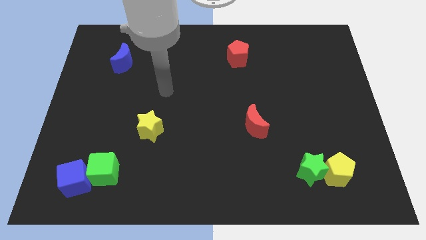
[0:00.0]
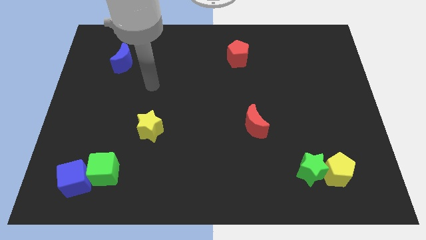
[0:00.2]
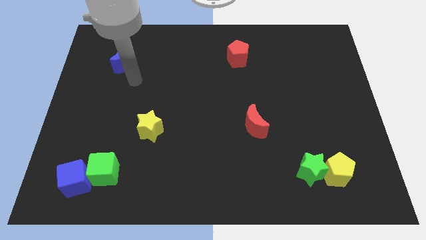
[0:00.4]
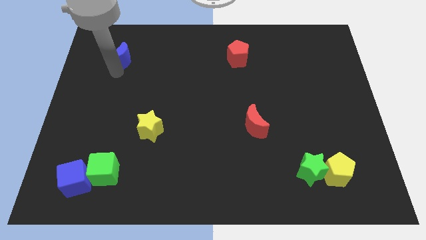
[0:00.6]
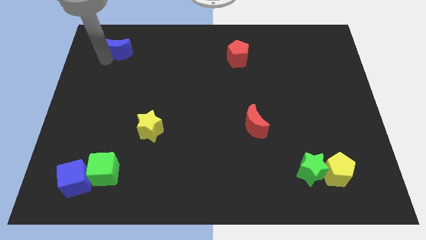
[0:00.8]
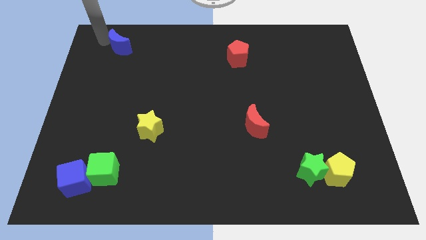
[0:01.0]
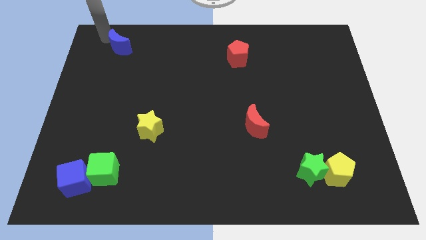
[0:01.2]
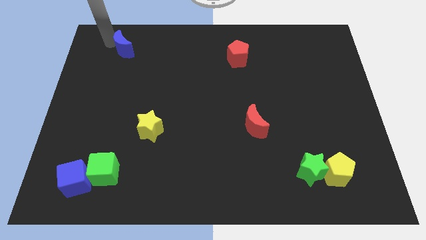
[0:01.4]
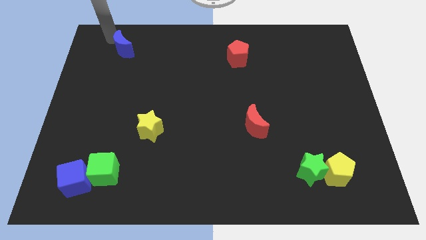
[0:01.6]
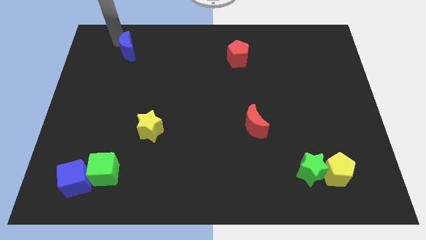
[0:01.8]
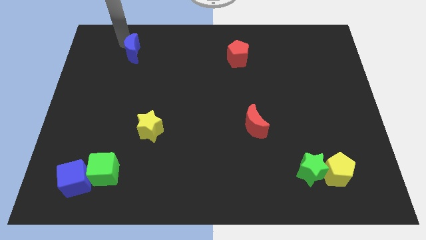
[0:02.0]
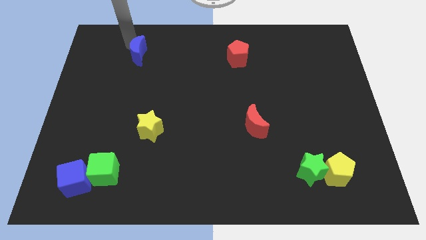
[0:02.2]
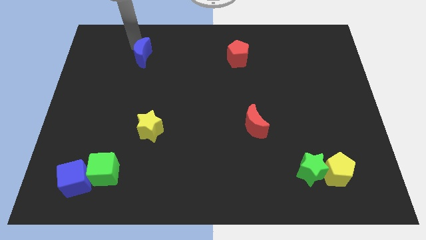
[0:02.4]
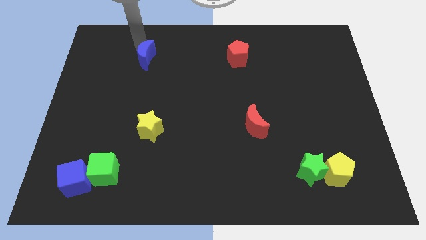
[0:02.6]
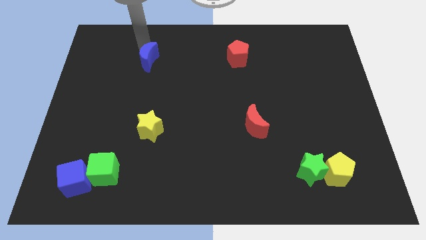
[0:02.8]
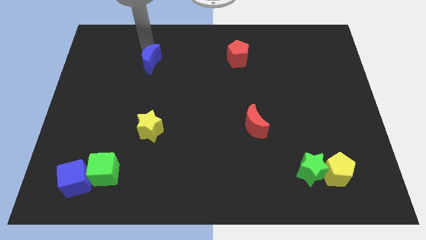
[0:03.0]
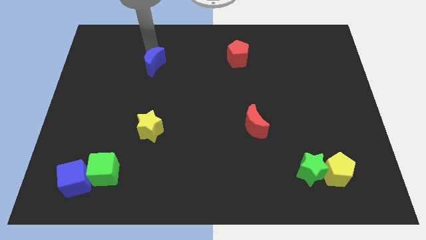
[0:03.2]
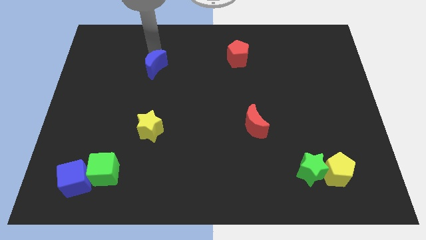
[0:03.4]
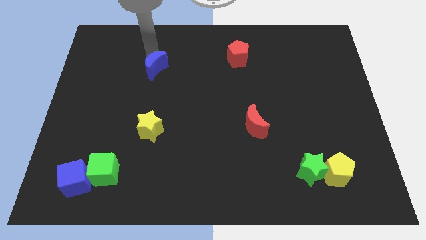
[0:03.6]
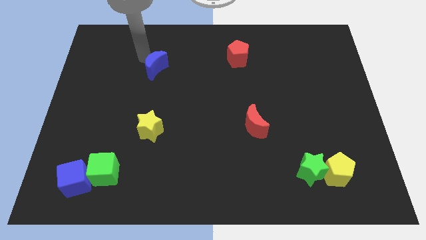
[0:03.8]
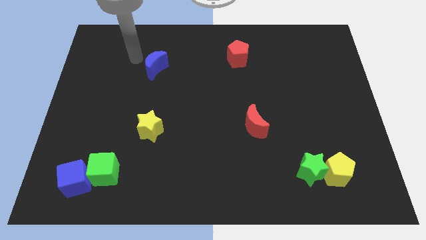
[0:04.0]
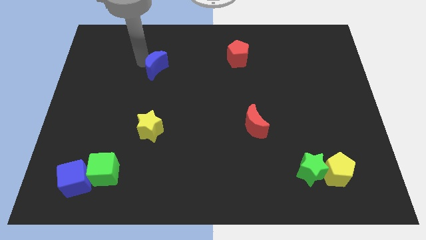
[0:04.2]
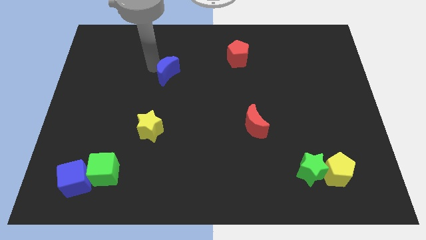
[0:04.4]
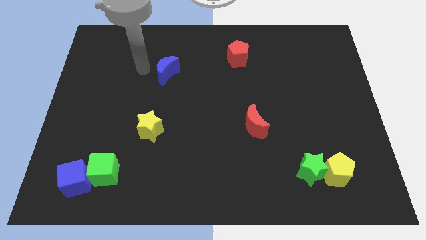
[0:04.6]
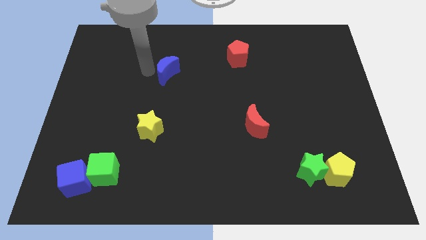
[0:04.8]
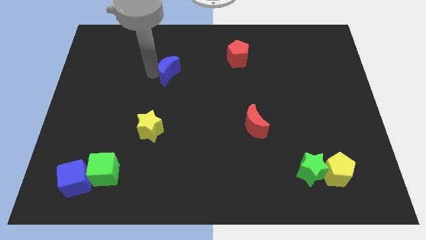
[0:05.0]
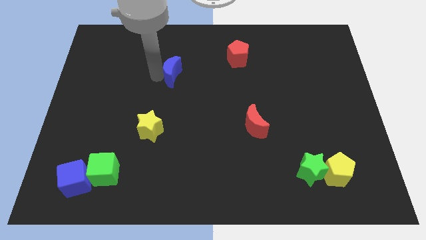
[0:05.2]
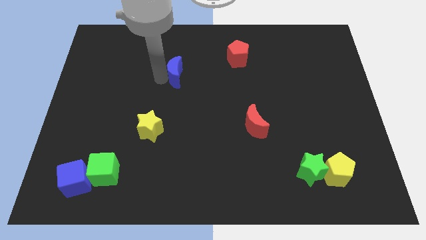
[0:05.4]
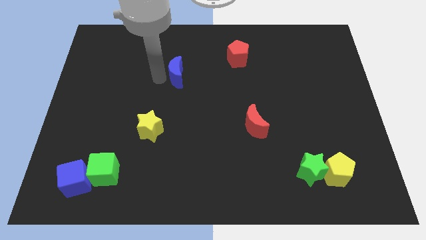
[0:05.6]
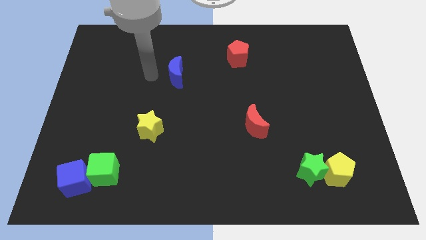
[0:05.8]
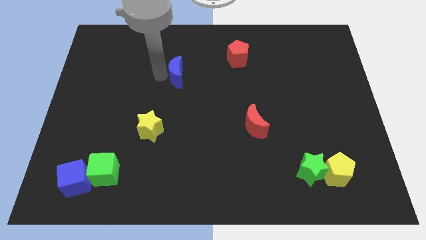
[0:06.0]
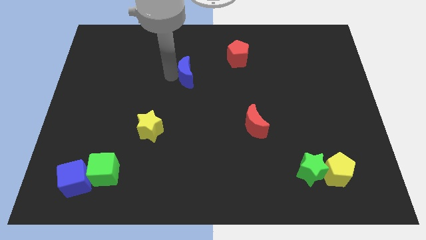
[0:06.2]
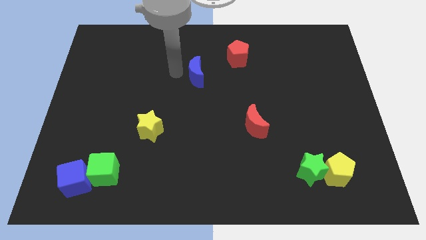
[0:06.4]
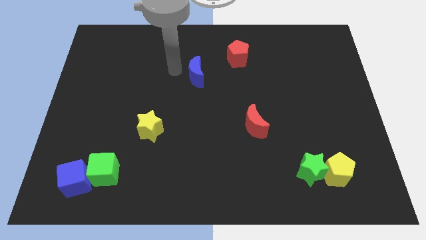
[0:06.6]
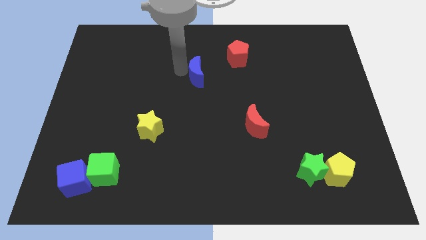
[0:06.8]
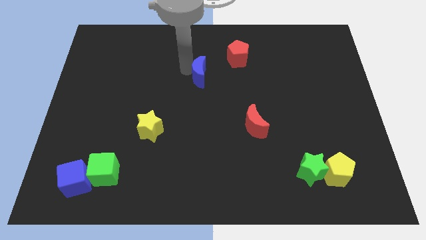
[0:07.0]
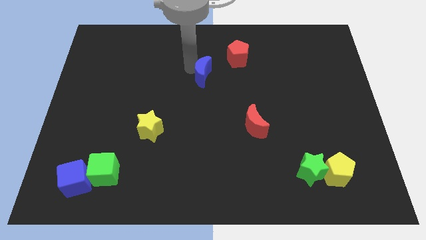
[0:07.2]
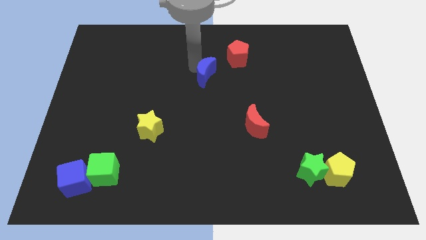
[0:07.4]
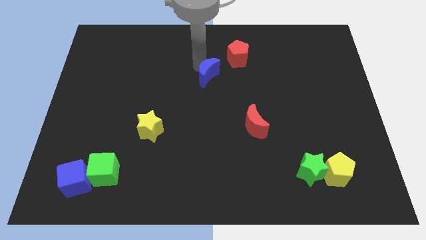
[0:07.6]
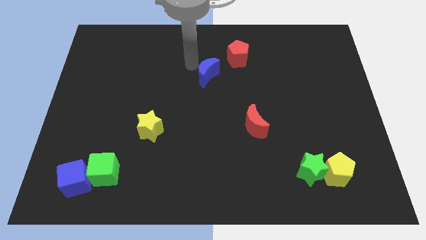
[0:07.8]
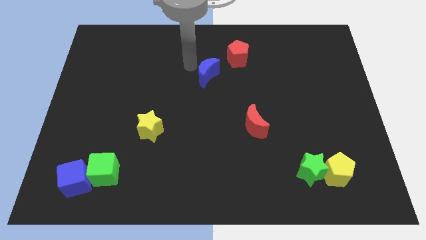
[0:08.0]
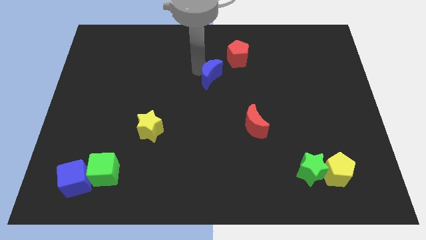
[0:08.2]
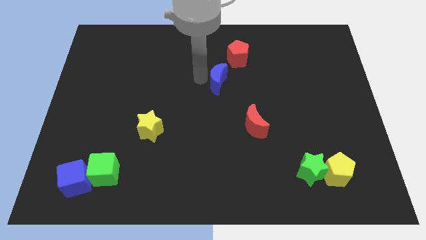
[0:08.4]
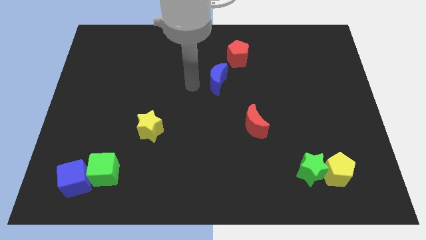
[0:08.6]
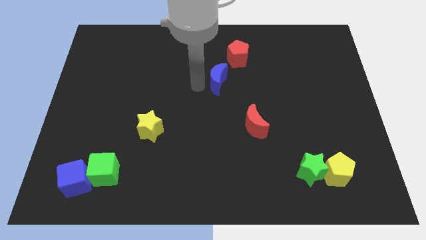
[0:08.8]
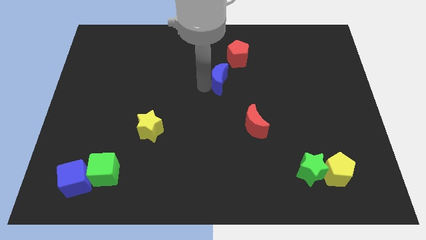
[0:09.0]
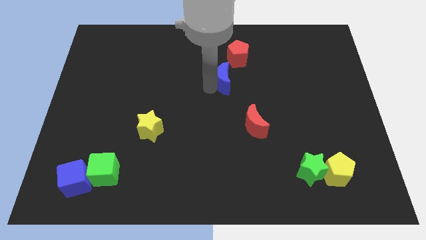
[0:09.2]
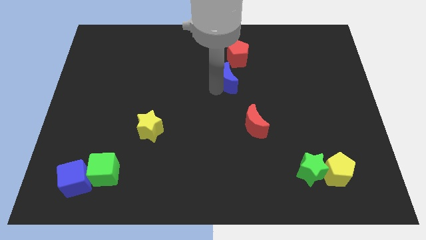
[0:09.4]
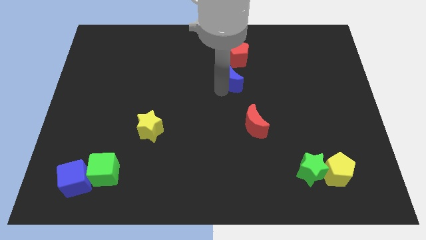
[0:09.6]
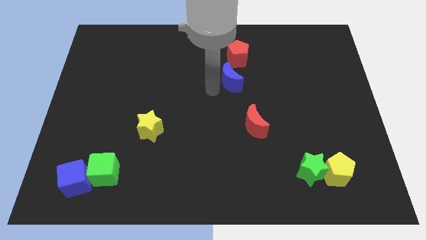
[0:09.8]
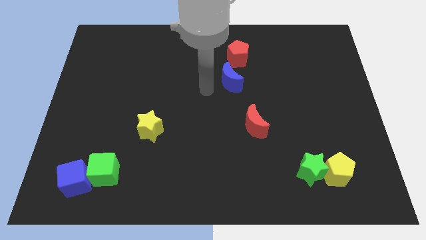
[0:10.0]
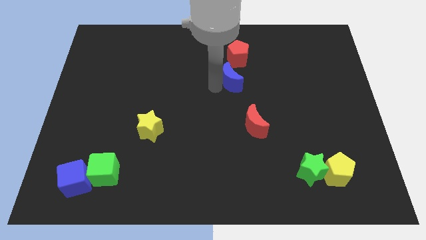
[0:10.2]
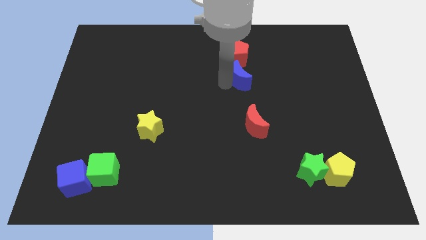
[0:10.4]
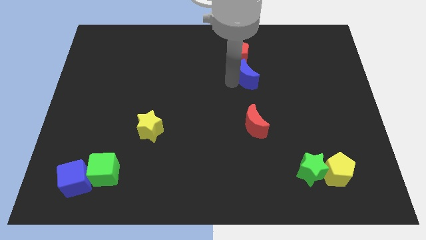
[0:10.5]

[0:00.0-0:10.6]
put the blue moon diagonally down and to the right of the red pentagon

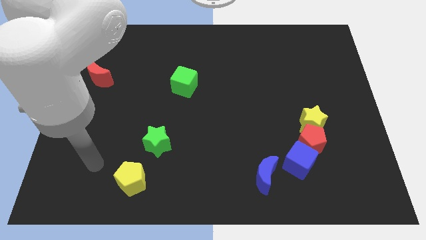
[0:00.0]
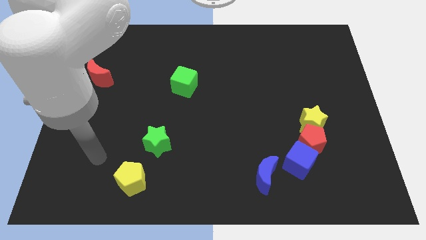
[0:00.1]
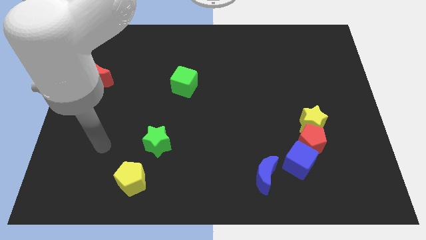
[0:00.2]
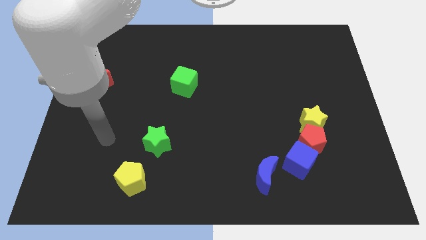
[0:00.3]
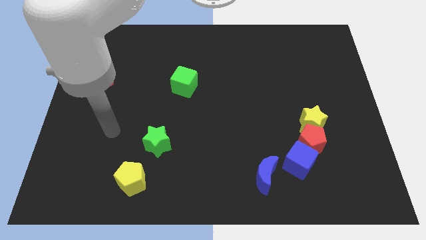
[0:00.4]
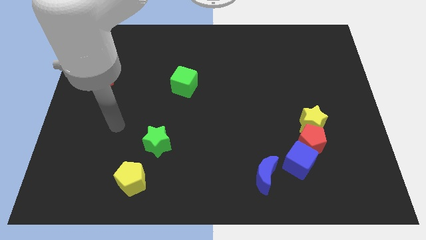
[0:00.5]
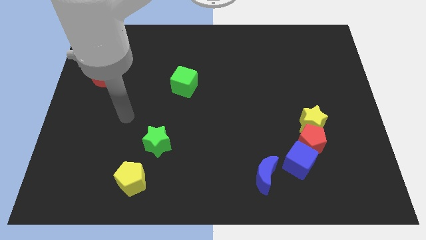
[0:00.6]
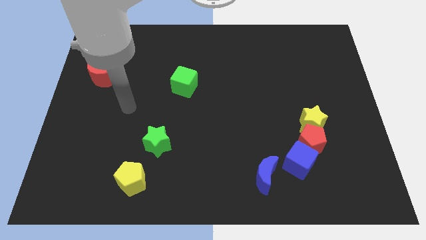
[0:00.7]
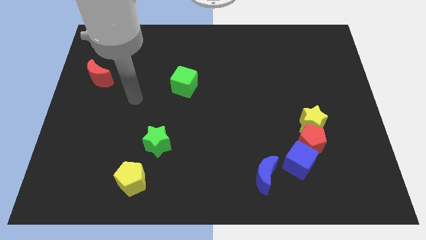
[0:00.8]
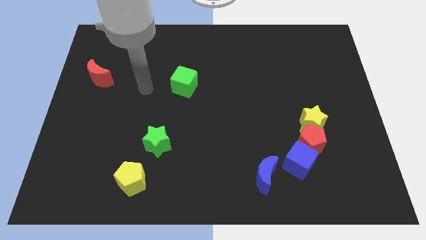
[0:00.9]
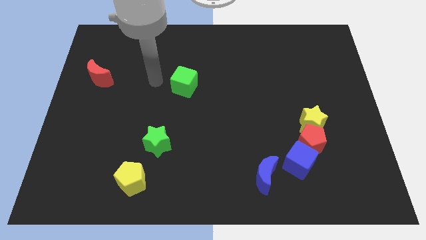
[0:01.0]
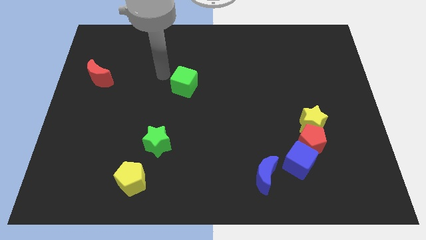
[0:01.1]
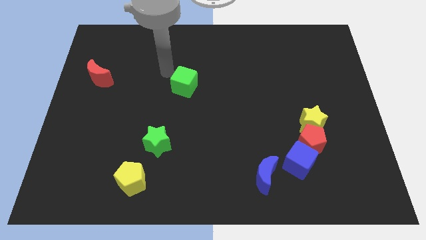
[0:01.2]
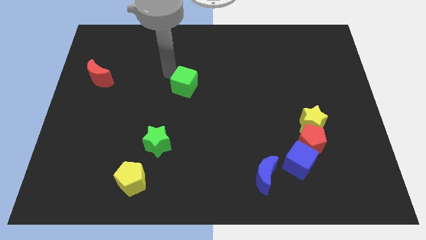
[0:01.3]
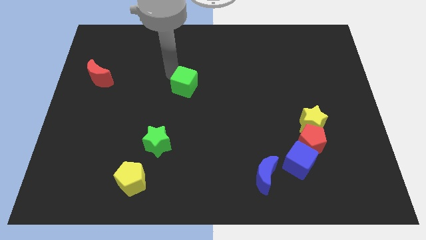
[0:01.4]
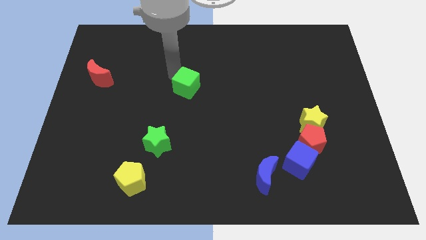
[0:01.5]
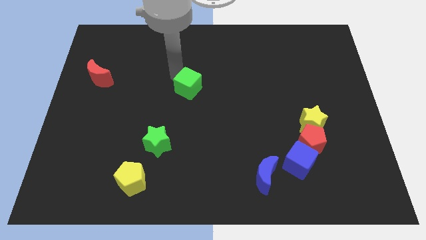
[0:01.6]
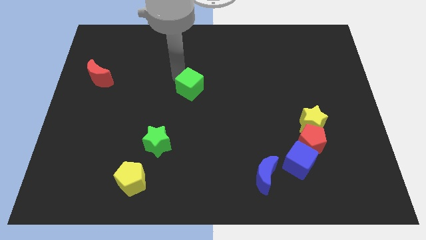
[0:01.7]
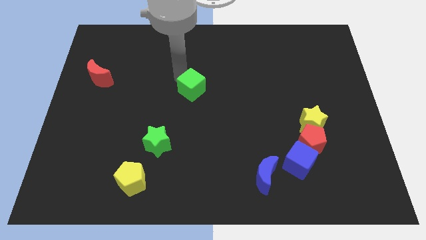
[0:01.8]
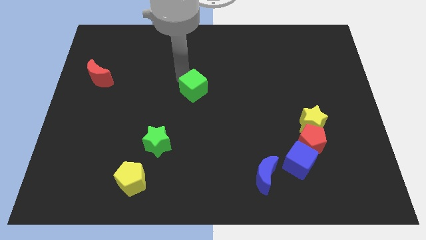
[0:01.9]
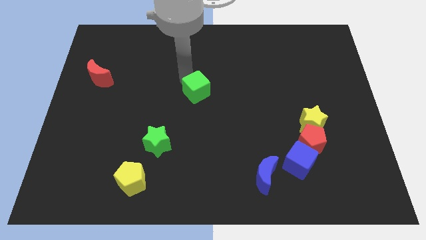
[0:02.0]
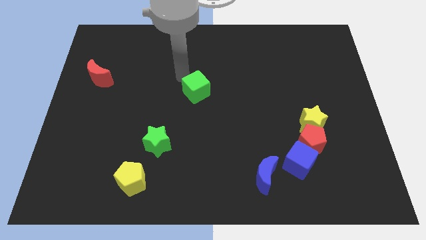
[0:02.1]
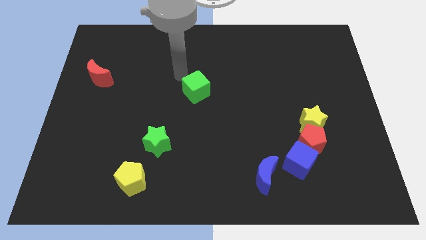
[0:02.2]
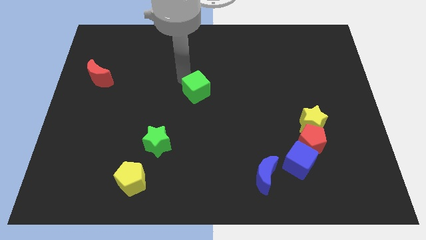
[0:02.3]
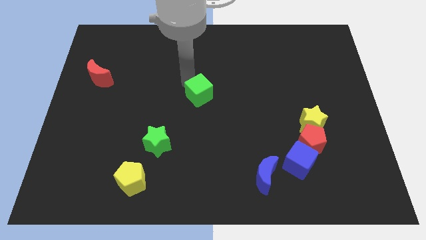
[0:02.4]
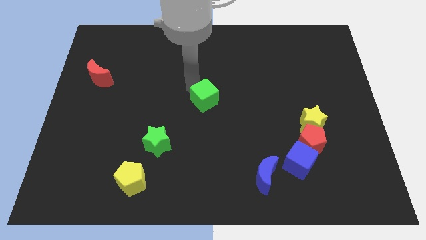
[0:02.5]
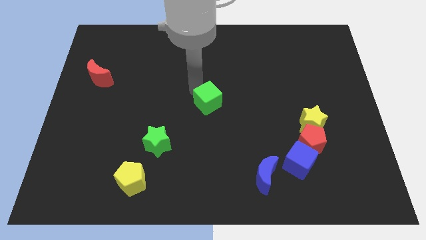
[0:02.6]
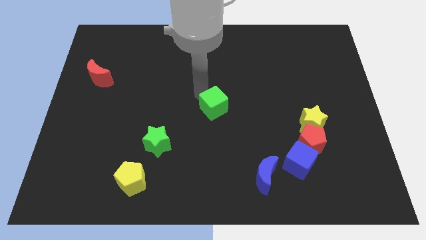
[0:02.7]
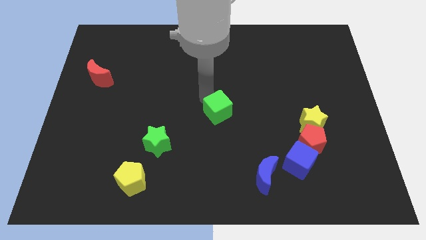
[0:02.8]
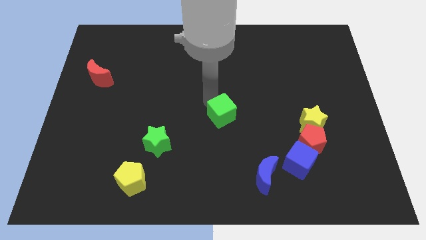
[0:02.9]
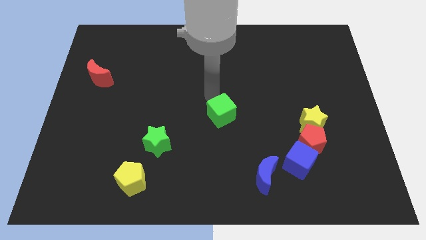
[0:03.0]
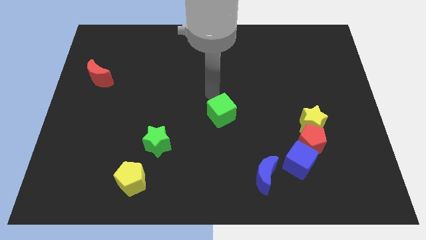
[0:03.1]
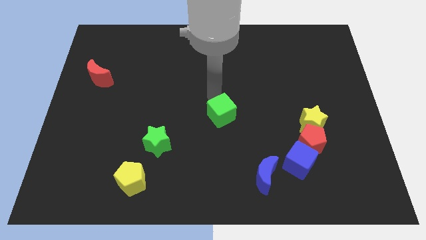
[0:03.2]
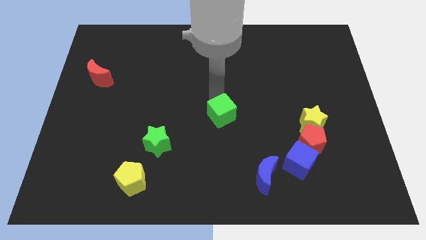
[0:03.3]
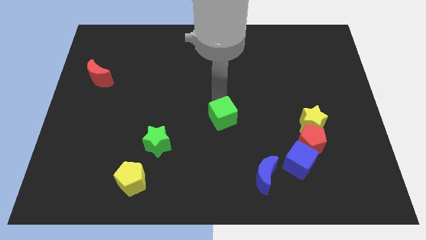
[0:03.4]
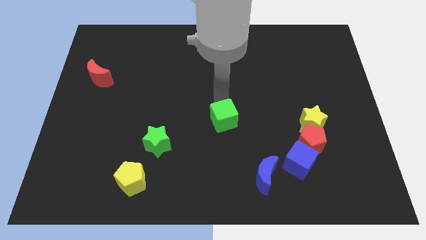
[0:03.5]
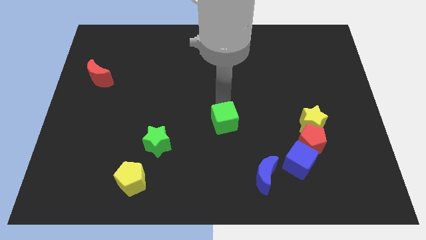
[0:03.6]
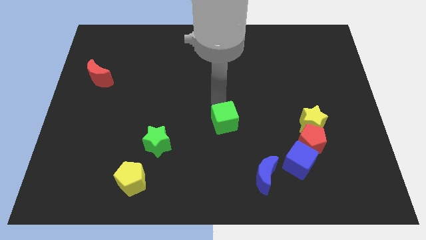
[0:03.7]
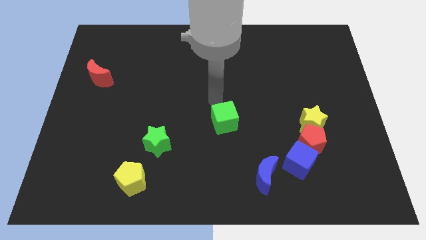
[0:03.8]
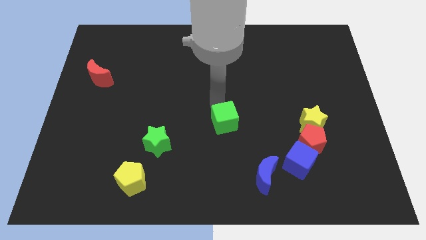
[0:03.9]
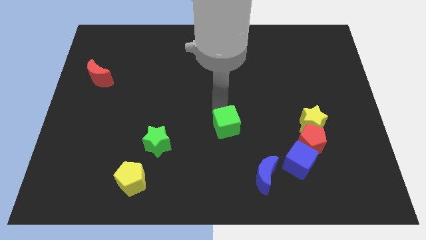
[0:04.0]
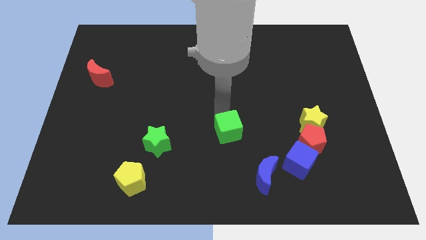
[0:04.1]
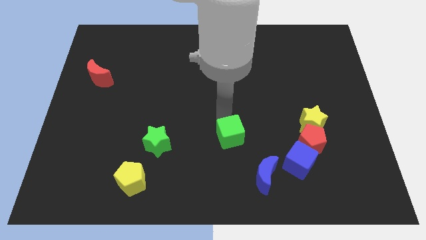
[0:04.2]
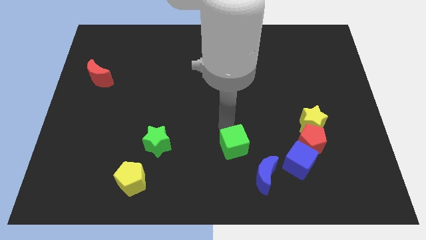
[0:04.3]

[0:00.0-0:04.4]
slide the green cube to the left side of the blue cube
